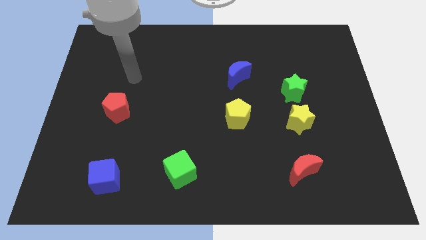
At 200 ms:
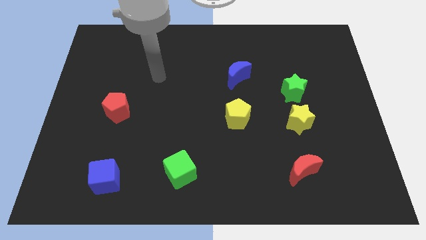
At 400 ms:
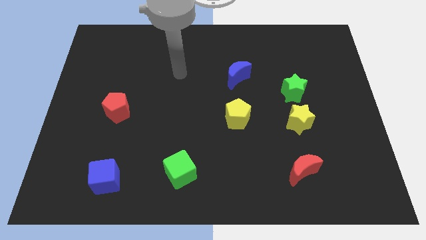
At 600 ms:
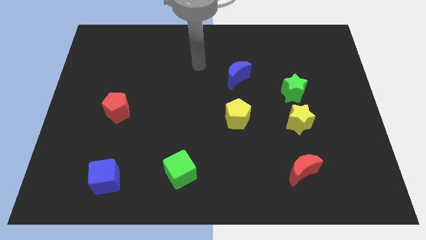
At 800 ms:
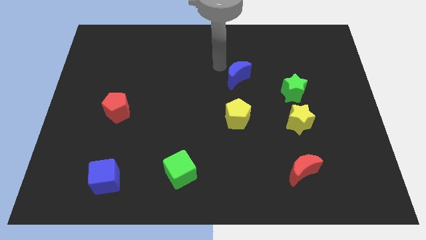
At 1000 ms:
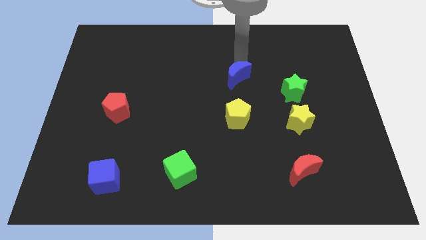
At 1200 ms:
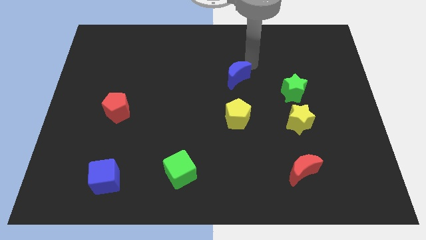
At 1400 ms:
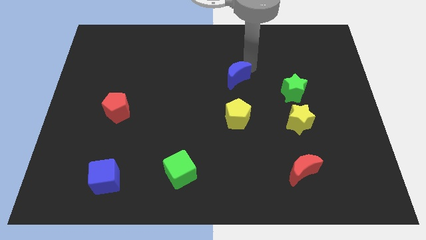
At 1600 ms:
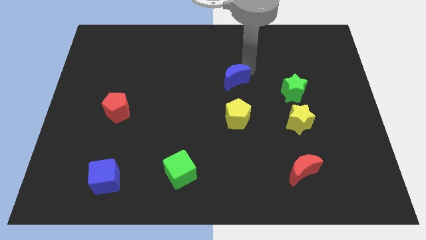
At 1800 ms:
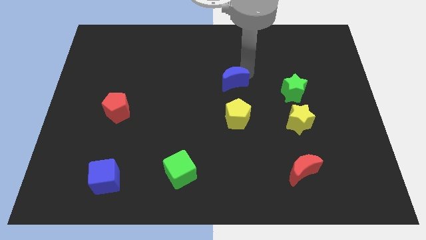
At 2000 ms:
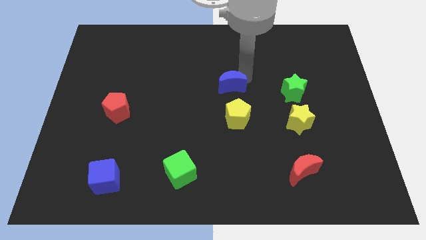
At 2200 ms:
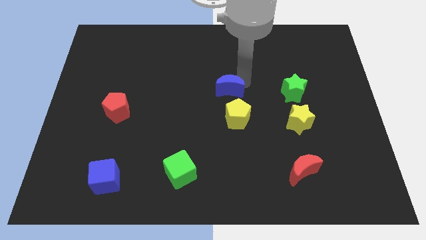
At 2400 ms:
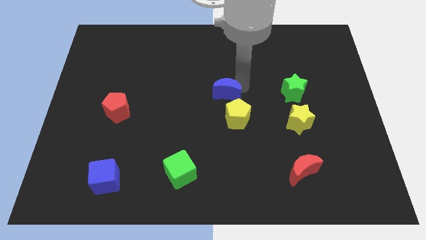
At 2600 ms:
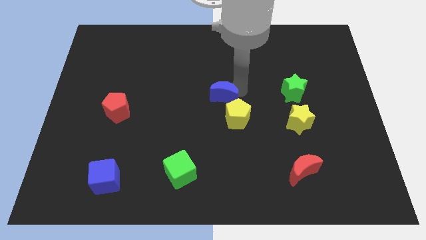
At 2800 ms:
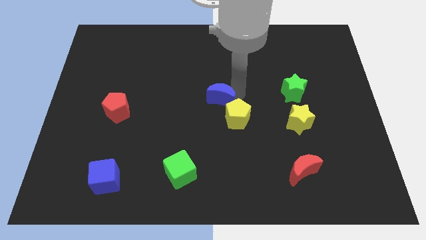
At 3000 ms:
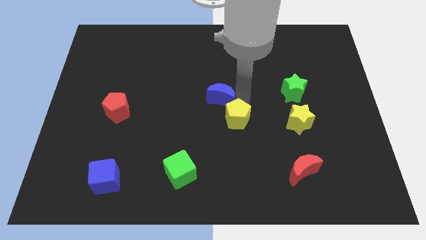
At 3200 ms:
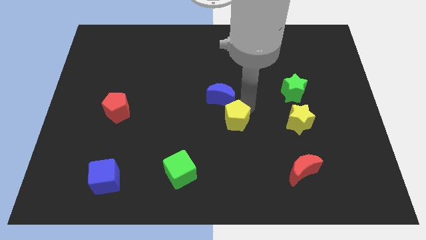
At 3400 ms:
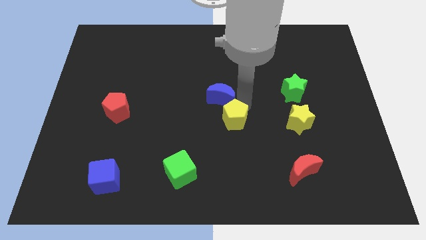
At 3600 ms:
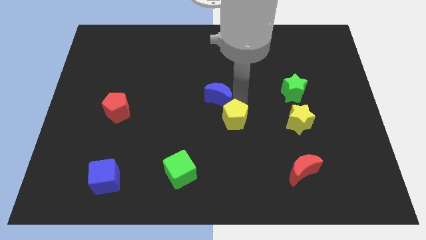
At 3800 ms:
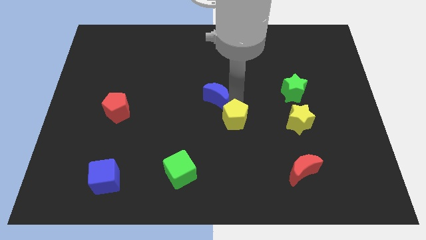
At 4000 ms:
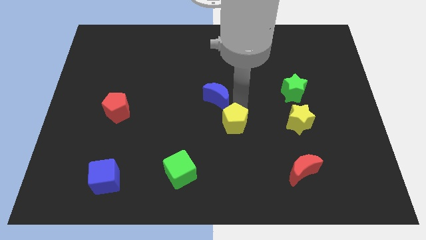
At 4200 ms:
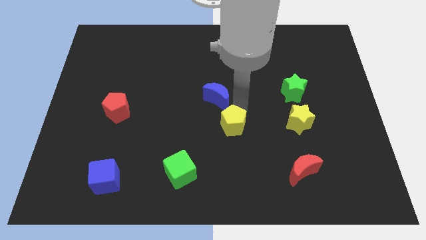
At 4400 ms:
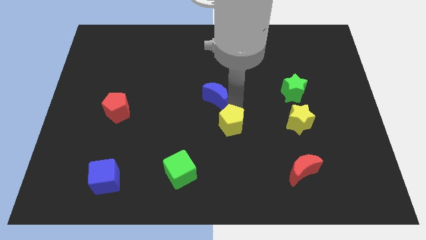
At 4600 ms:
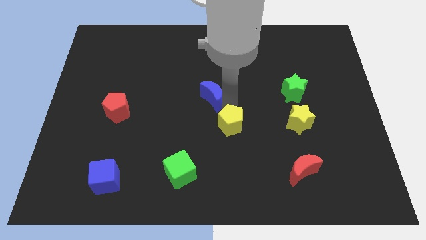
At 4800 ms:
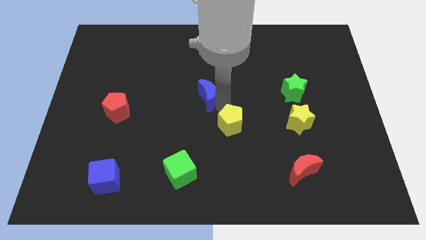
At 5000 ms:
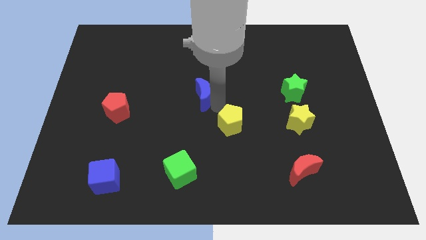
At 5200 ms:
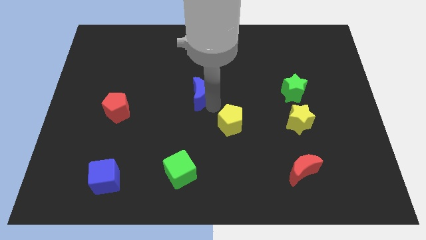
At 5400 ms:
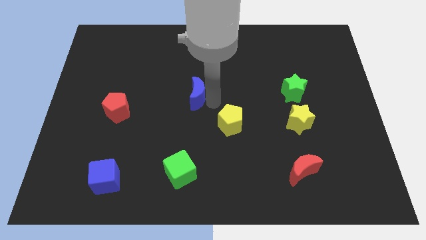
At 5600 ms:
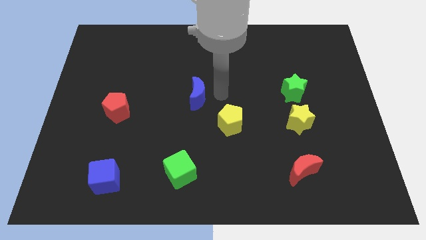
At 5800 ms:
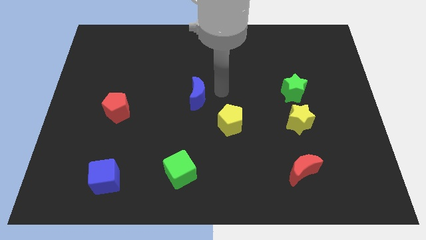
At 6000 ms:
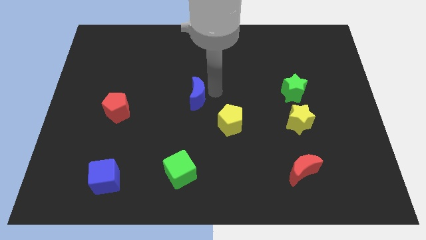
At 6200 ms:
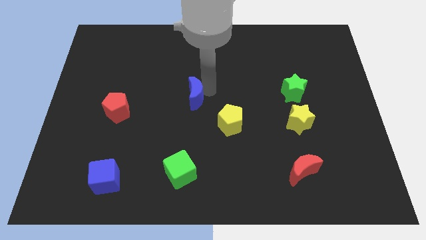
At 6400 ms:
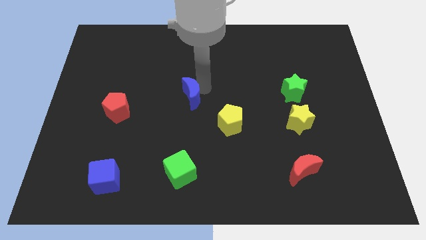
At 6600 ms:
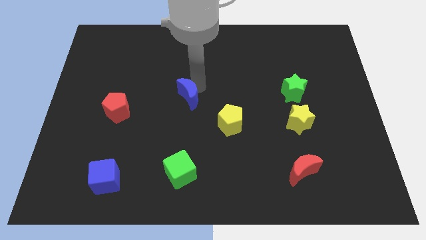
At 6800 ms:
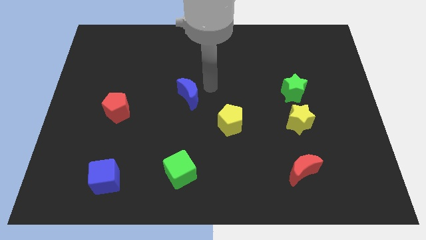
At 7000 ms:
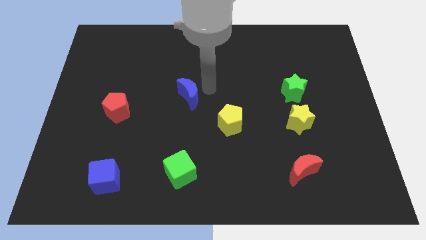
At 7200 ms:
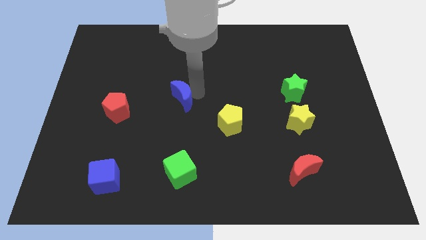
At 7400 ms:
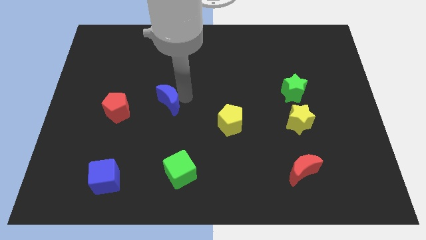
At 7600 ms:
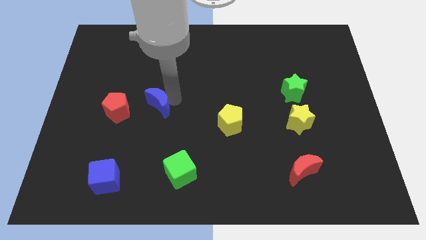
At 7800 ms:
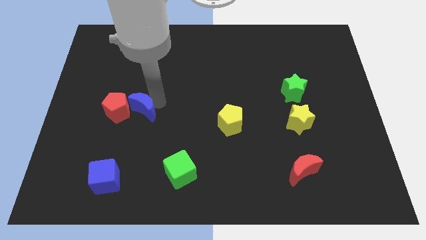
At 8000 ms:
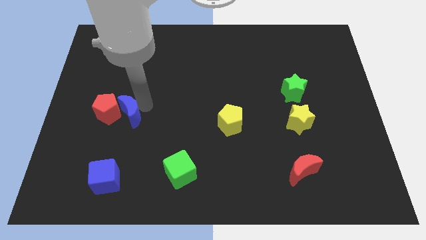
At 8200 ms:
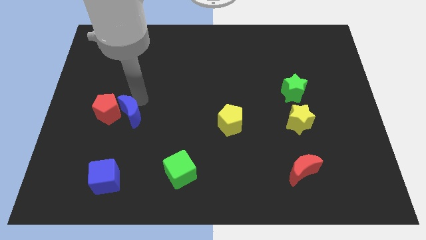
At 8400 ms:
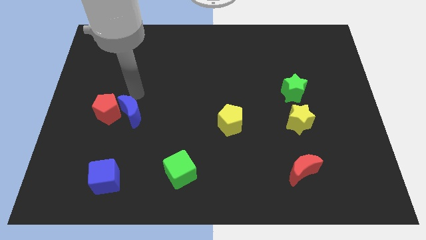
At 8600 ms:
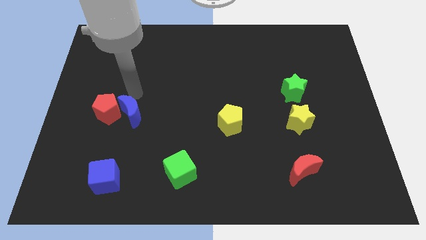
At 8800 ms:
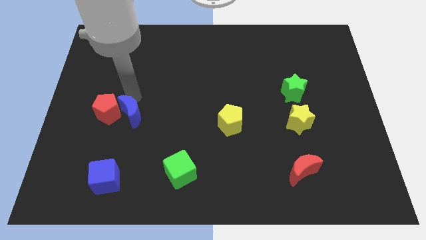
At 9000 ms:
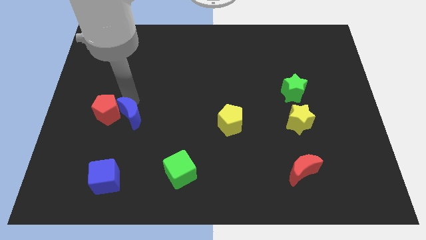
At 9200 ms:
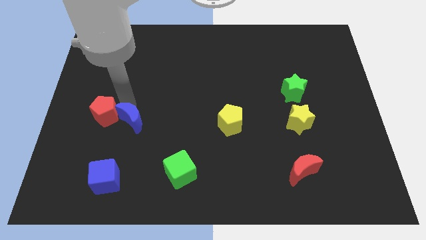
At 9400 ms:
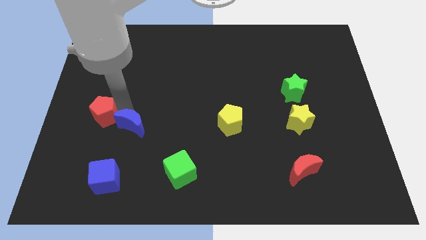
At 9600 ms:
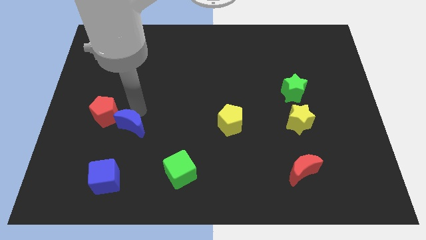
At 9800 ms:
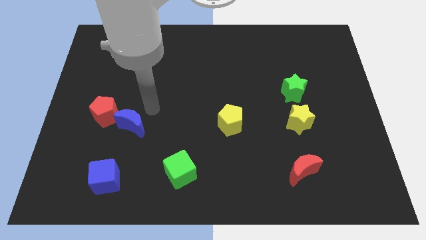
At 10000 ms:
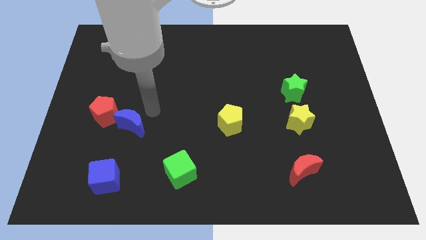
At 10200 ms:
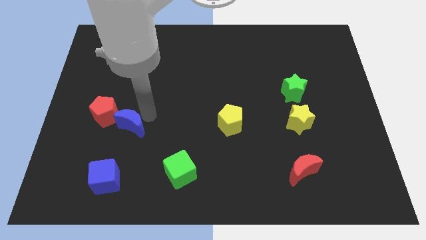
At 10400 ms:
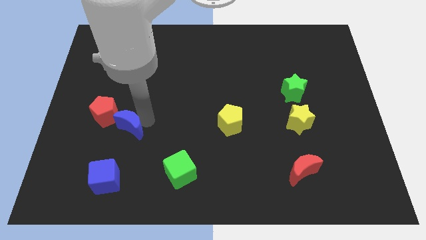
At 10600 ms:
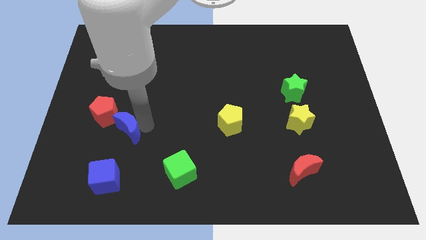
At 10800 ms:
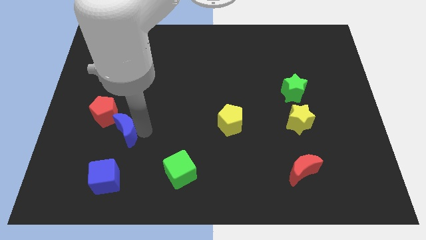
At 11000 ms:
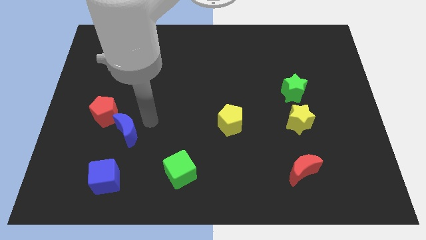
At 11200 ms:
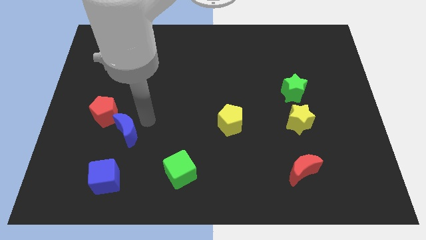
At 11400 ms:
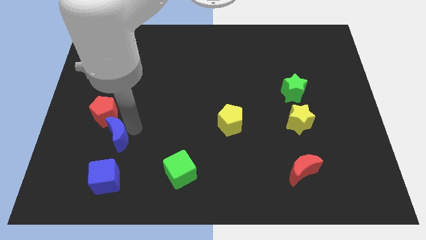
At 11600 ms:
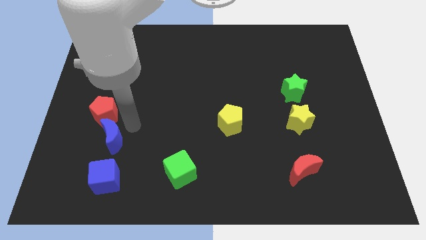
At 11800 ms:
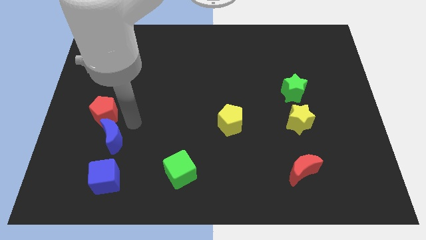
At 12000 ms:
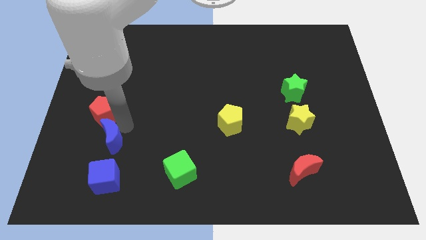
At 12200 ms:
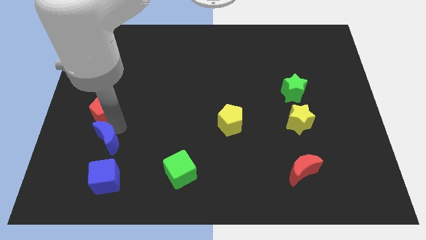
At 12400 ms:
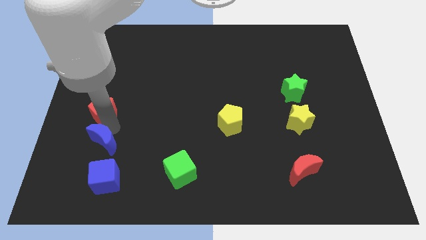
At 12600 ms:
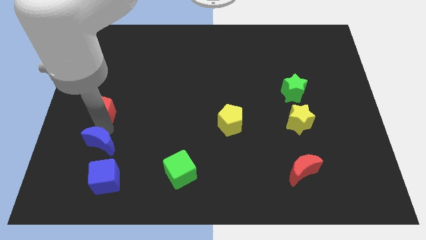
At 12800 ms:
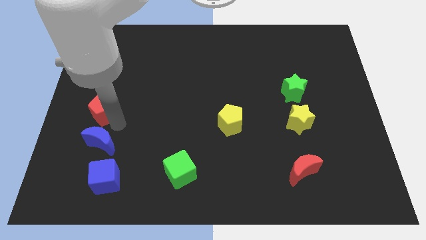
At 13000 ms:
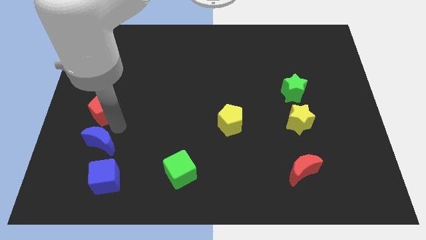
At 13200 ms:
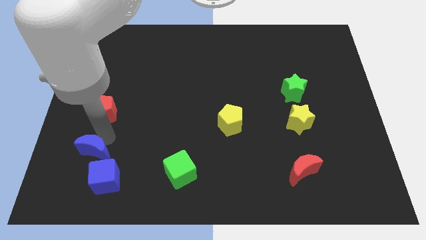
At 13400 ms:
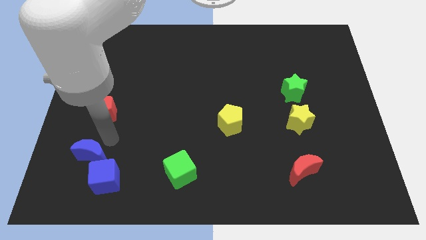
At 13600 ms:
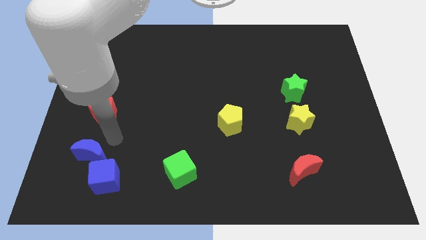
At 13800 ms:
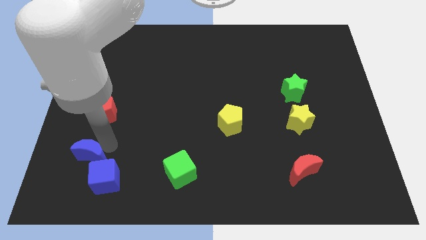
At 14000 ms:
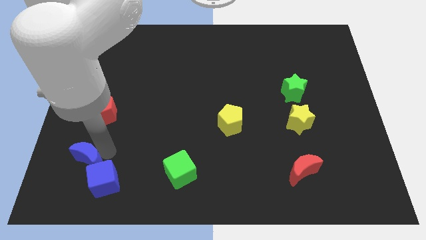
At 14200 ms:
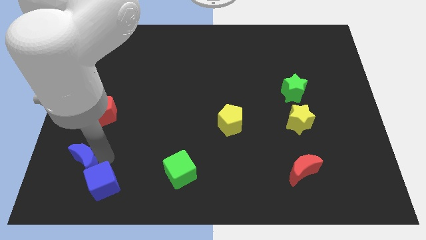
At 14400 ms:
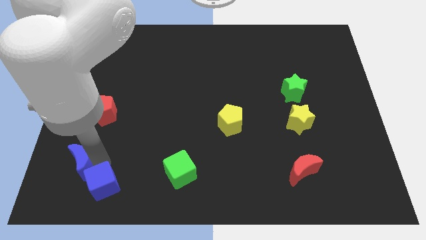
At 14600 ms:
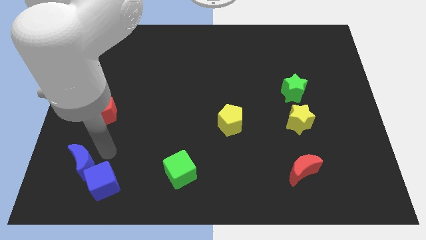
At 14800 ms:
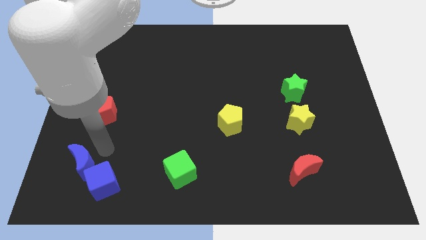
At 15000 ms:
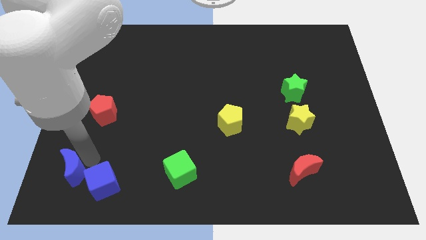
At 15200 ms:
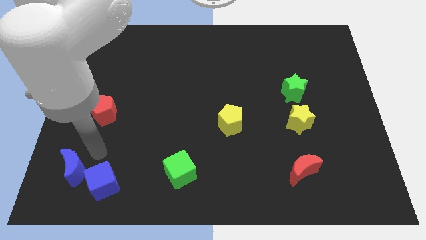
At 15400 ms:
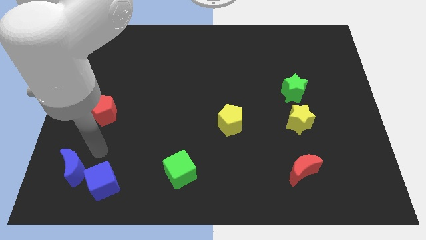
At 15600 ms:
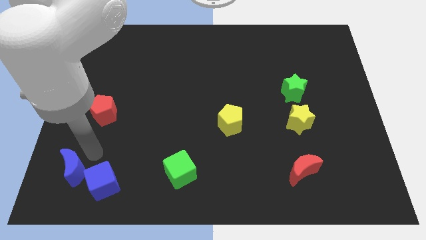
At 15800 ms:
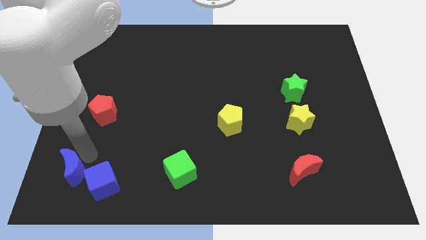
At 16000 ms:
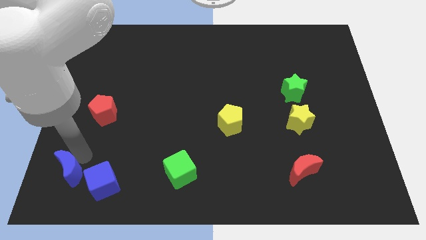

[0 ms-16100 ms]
slide the blue moon to the bottom left corner
